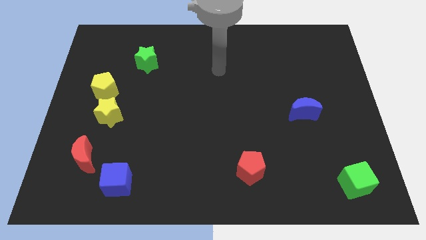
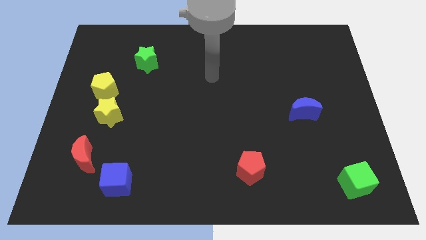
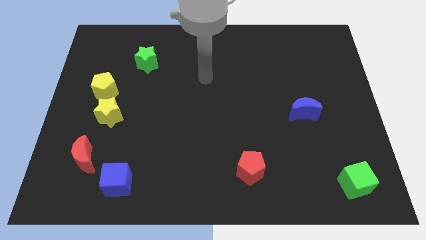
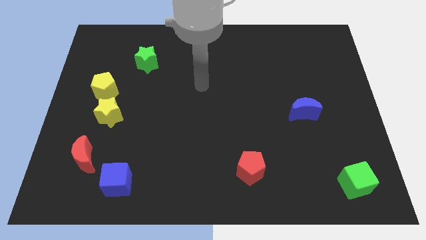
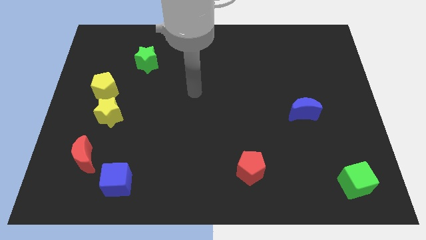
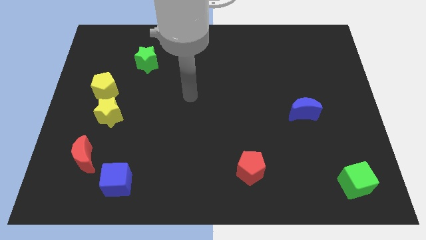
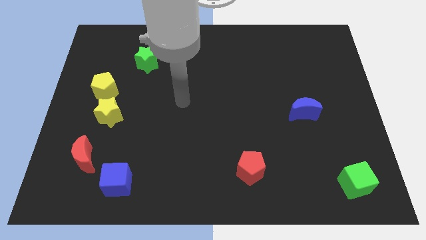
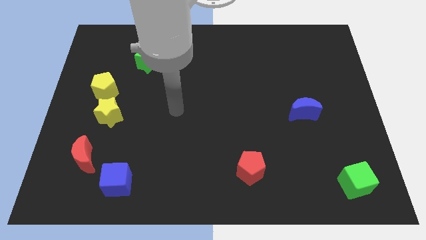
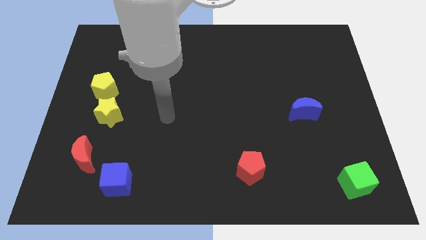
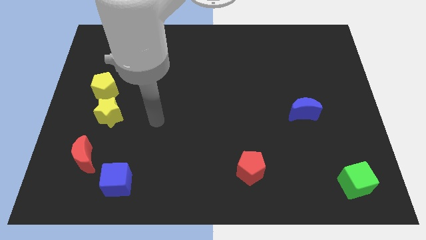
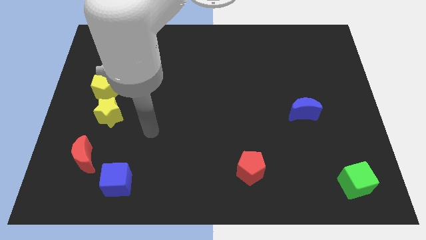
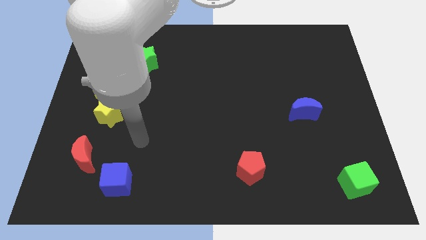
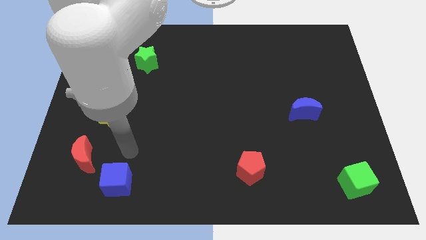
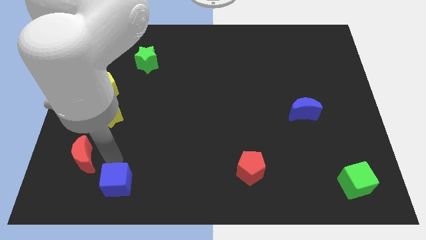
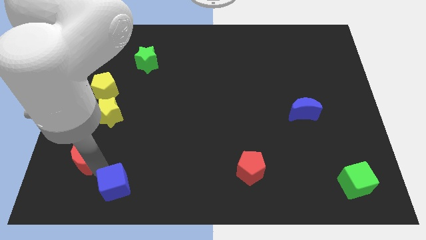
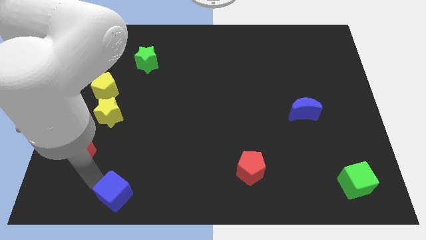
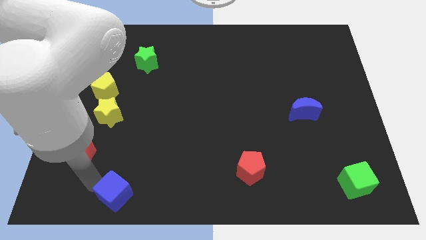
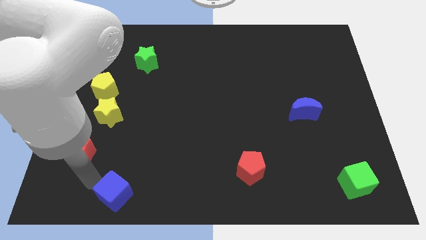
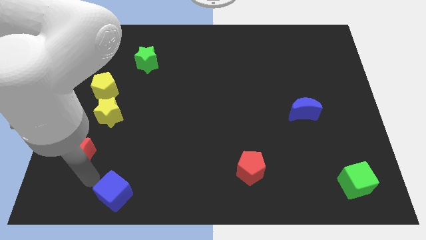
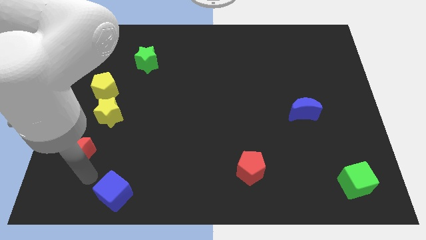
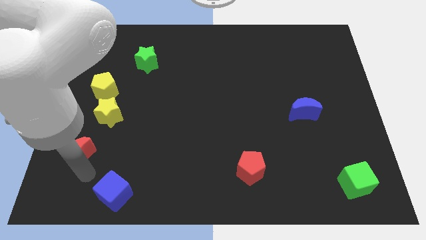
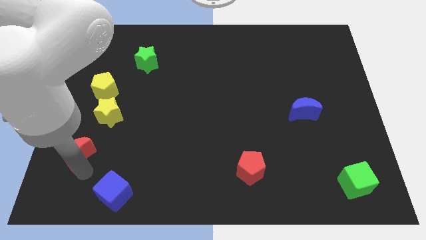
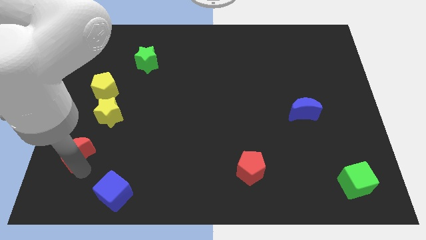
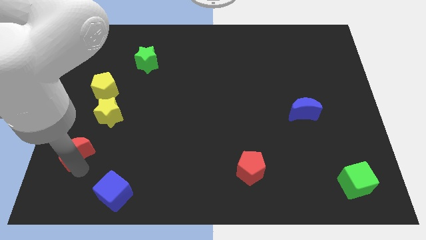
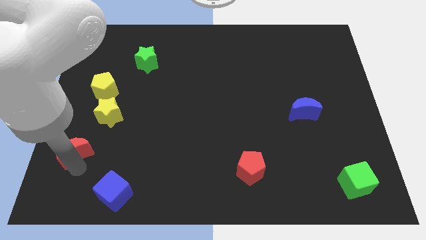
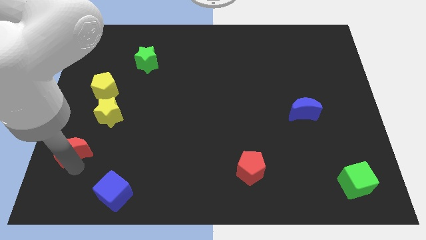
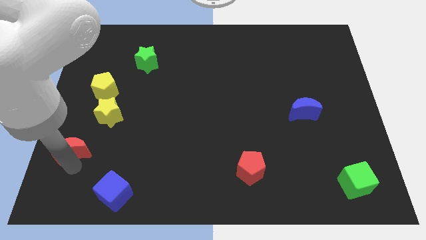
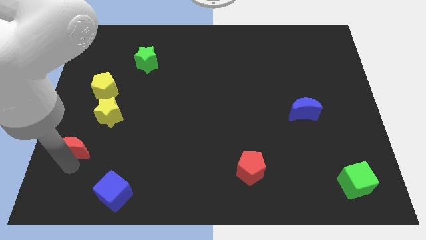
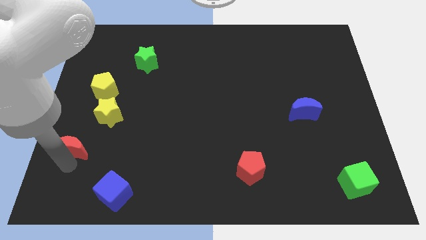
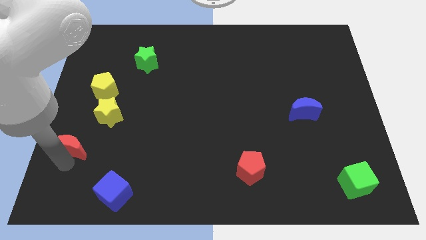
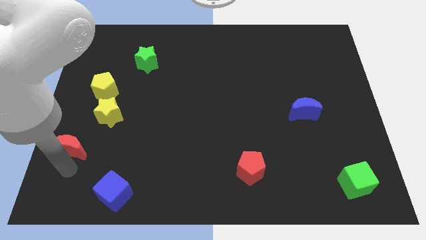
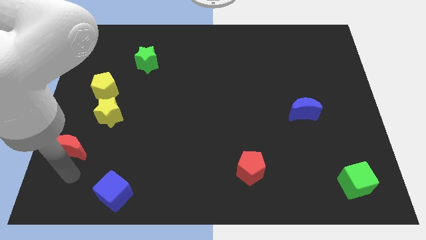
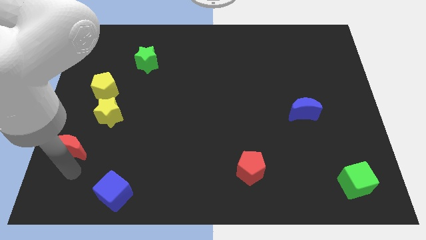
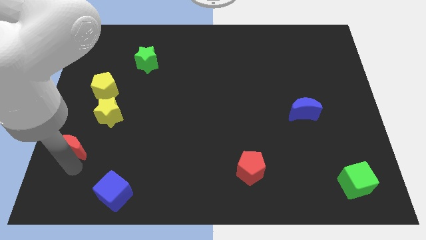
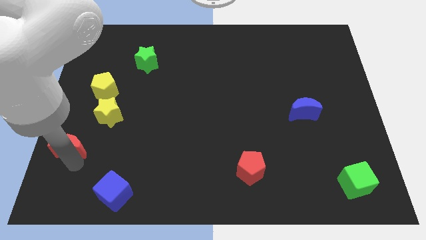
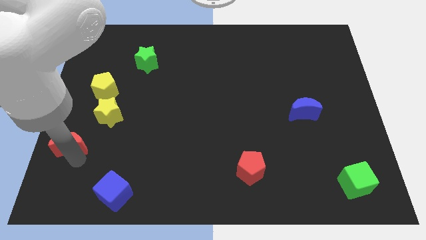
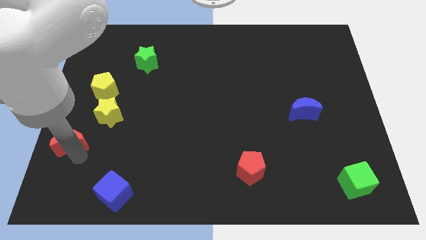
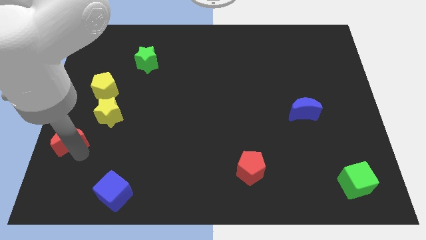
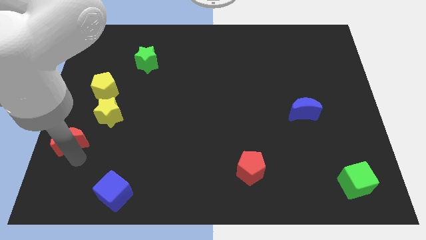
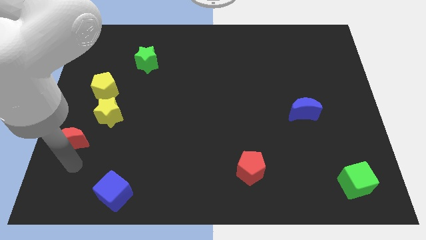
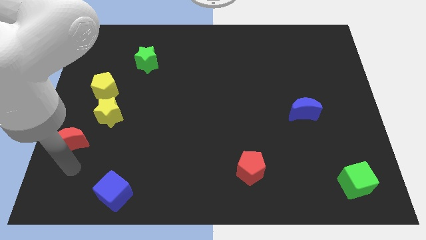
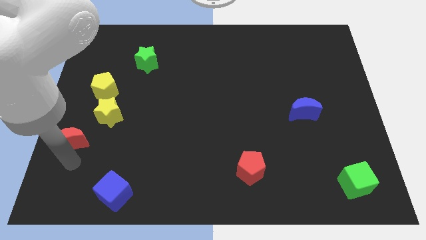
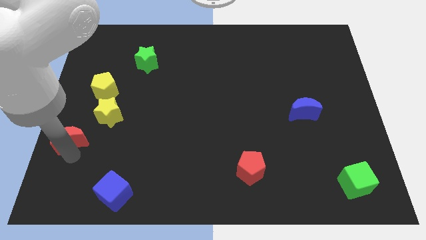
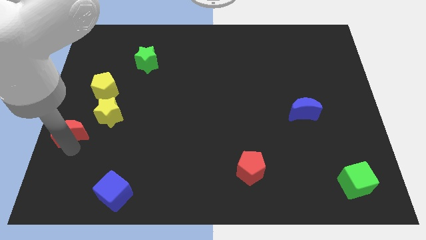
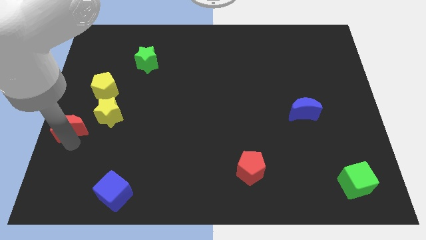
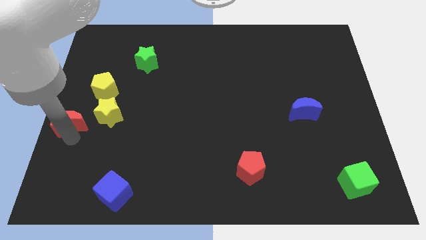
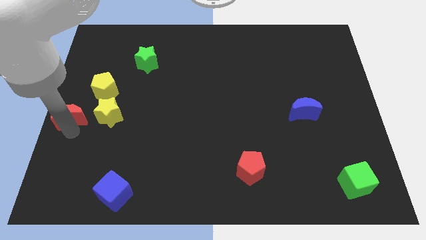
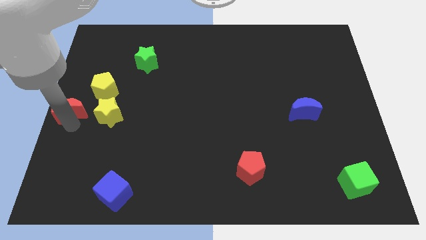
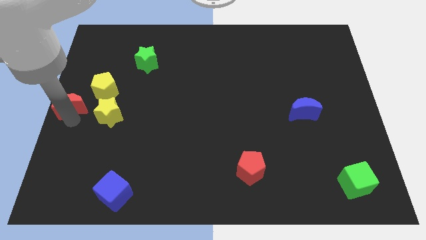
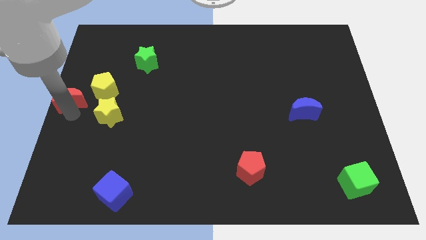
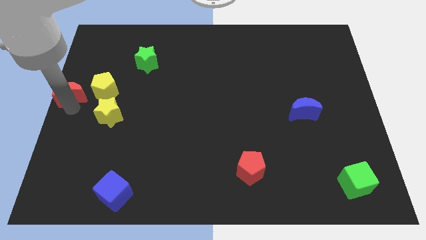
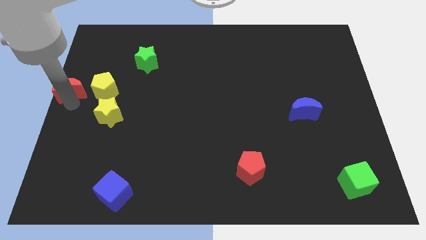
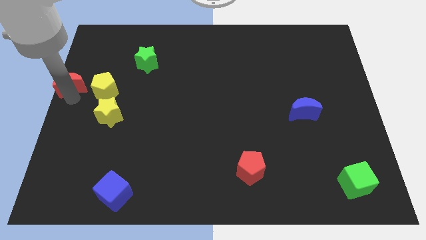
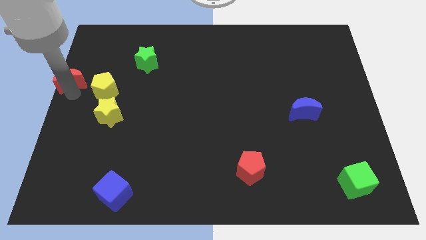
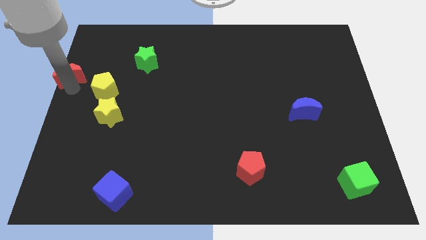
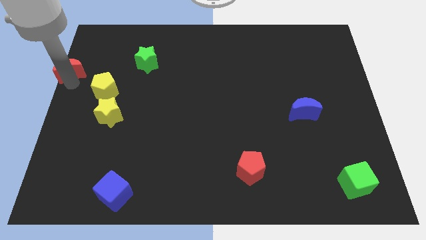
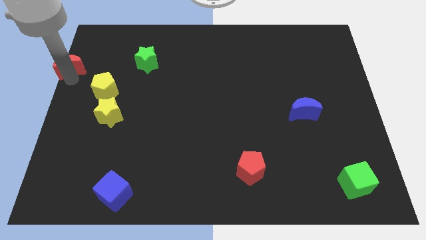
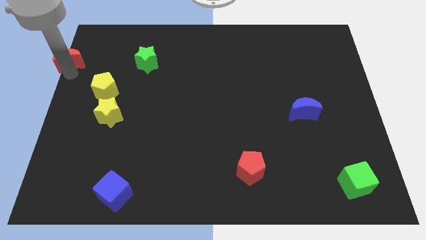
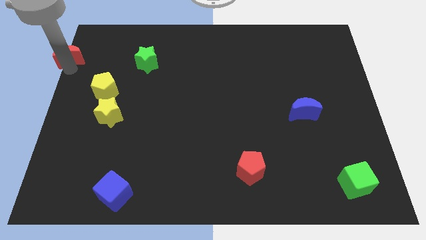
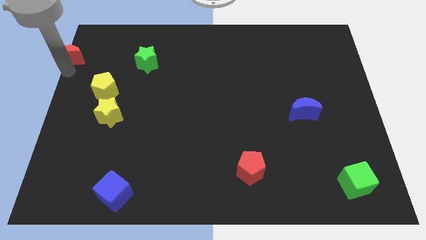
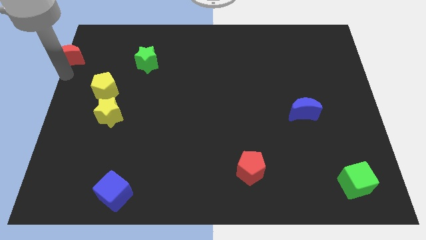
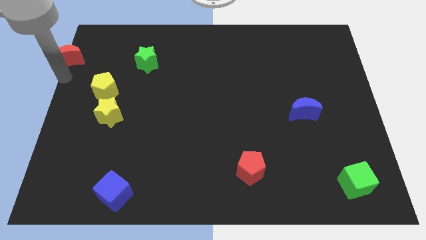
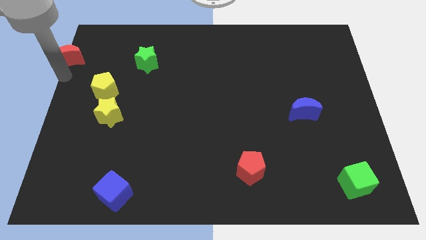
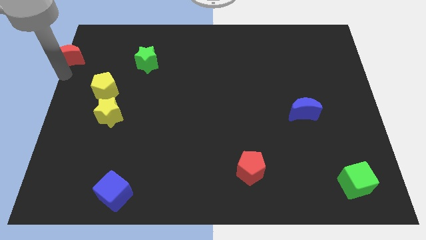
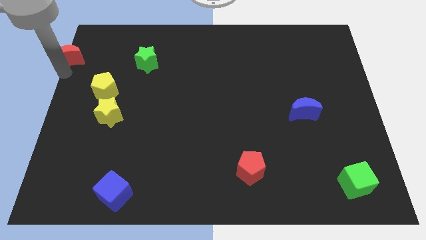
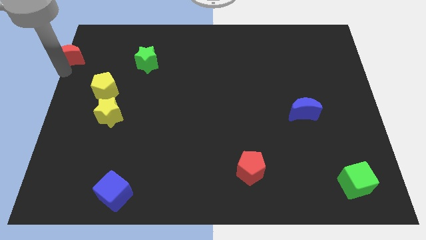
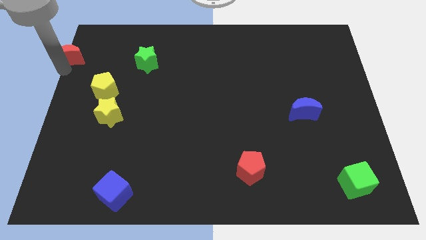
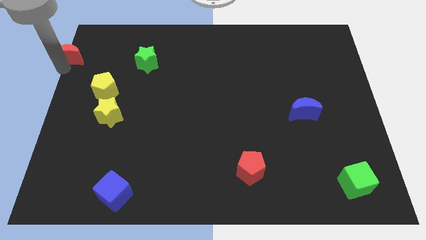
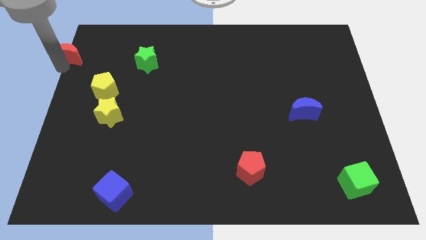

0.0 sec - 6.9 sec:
push the red moon to the top left corner
